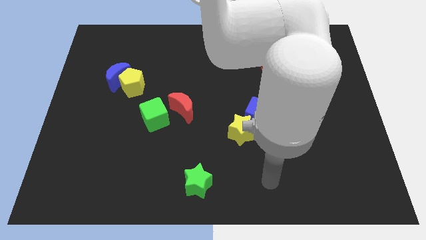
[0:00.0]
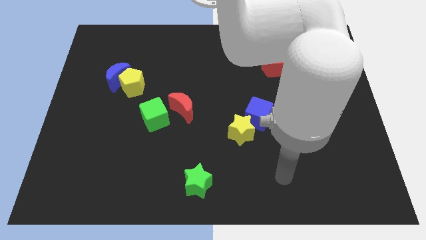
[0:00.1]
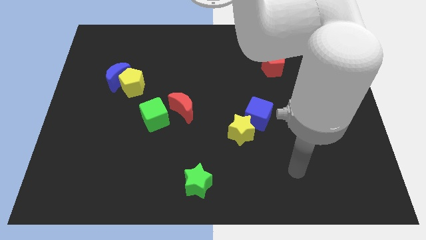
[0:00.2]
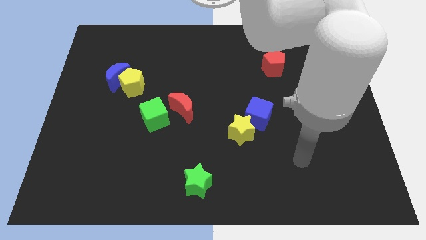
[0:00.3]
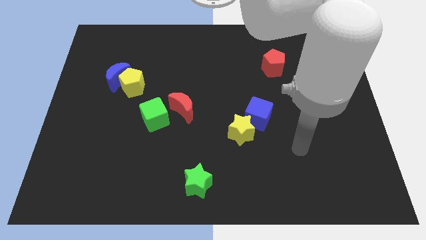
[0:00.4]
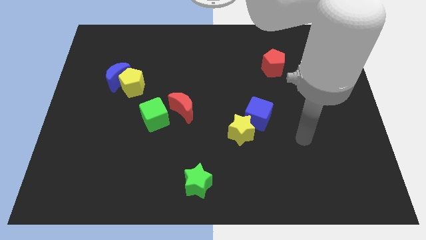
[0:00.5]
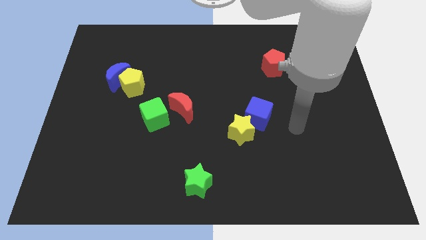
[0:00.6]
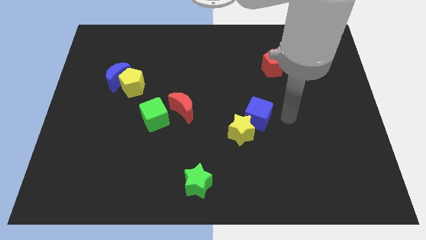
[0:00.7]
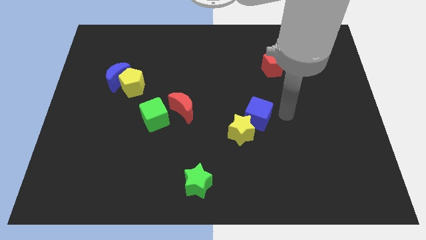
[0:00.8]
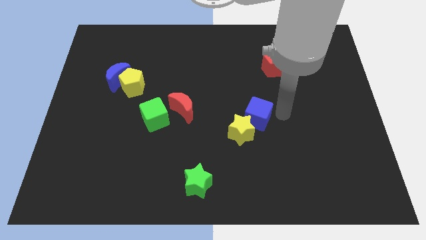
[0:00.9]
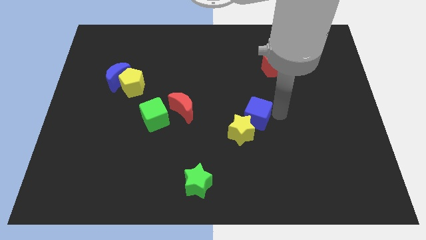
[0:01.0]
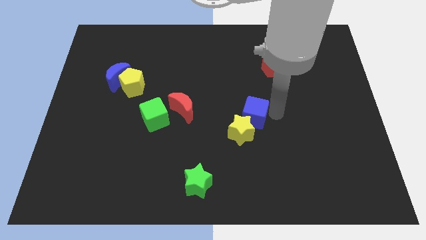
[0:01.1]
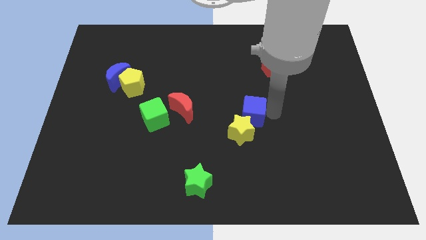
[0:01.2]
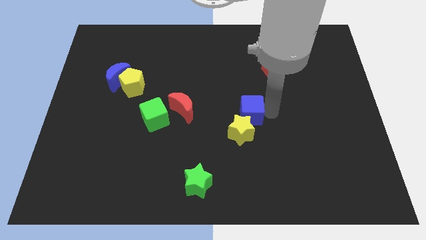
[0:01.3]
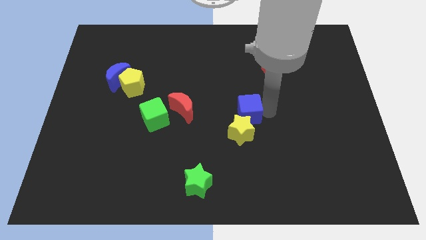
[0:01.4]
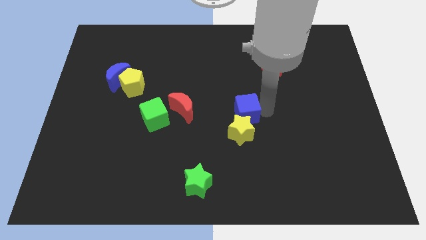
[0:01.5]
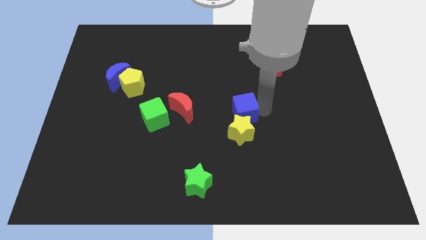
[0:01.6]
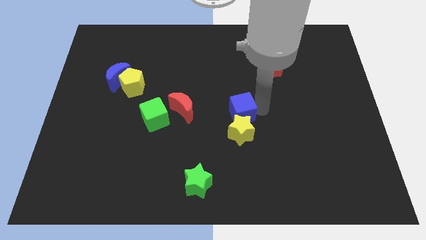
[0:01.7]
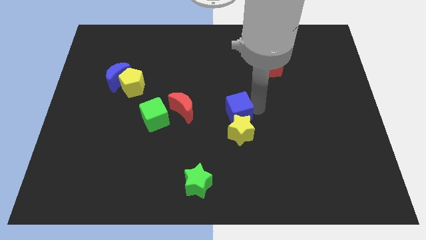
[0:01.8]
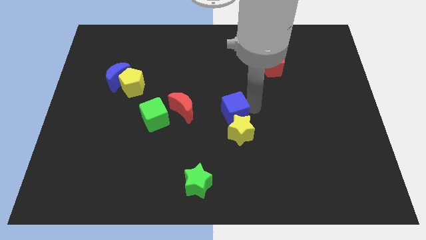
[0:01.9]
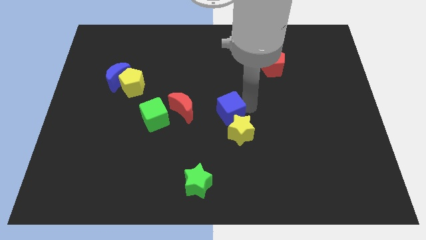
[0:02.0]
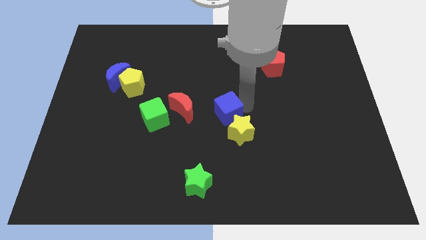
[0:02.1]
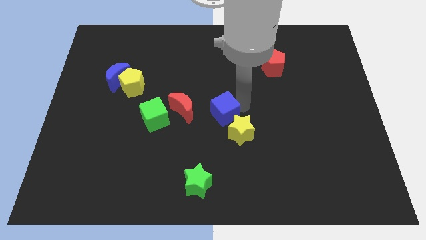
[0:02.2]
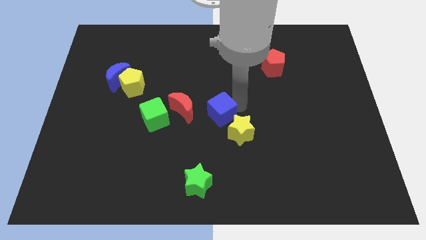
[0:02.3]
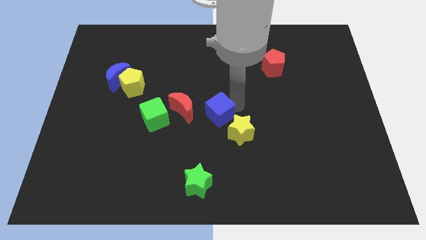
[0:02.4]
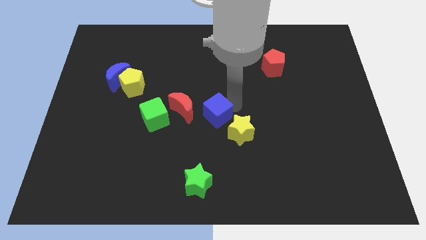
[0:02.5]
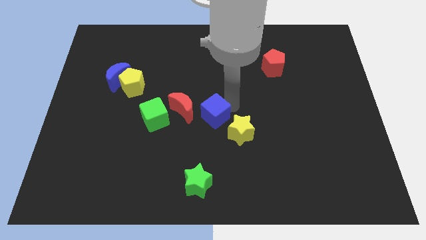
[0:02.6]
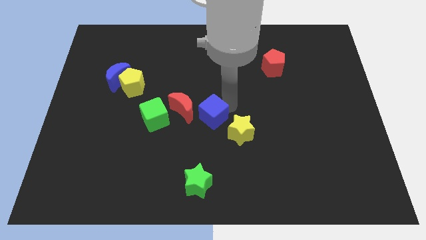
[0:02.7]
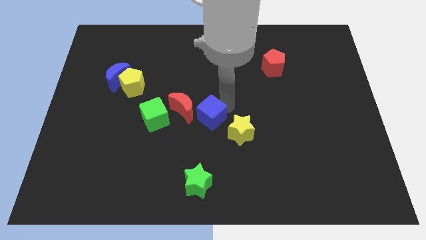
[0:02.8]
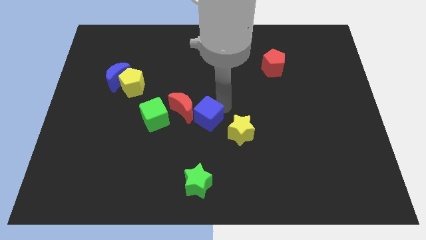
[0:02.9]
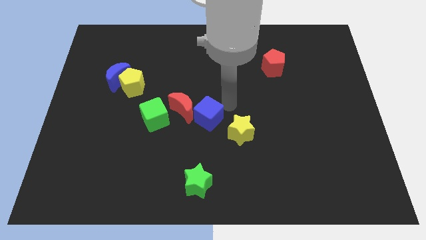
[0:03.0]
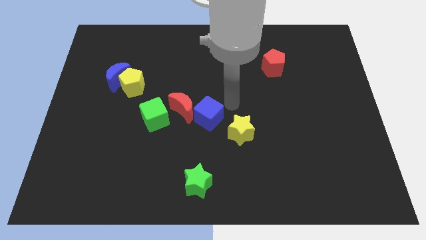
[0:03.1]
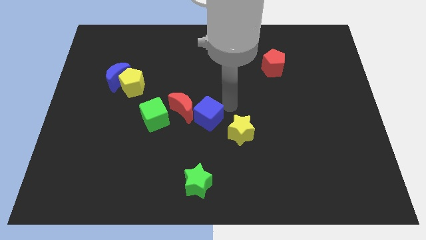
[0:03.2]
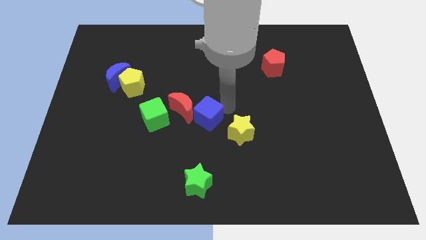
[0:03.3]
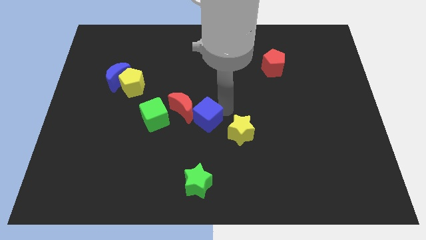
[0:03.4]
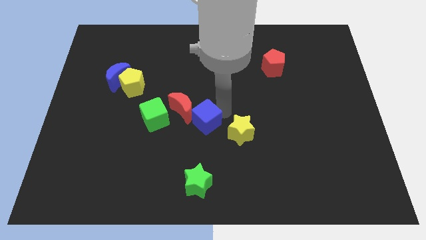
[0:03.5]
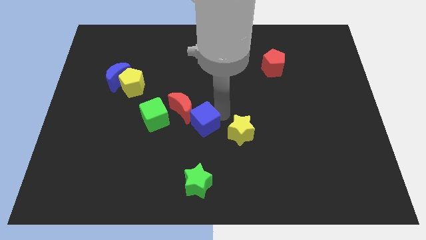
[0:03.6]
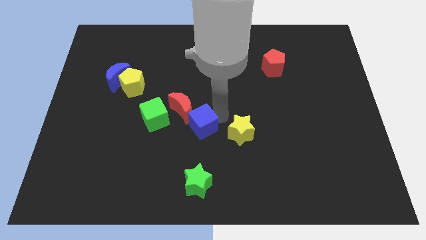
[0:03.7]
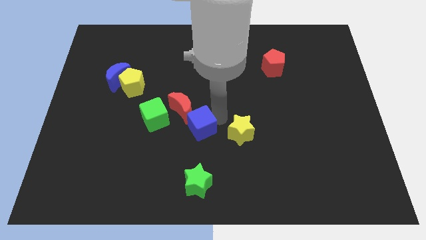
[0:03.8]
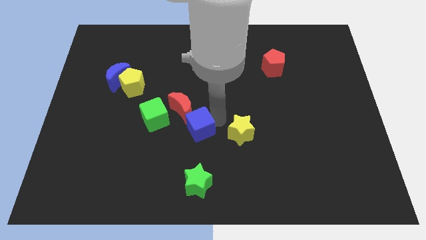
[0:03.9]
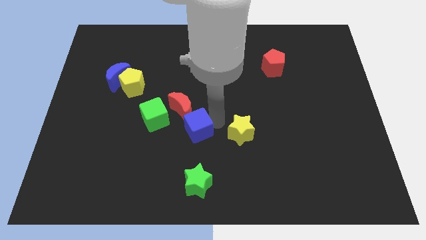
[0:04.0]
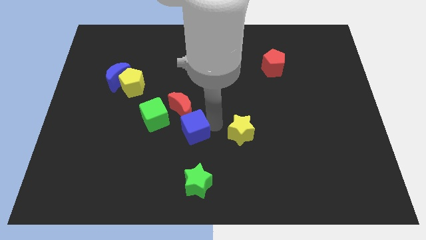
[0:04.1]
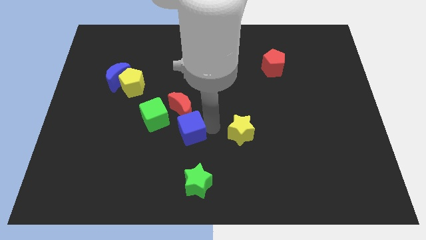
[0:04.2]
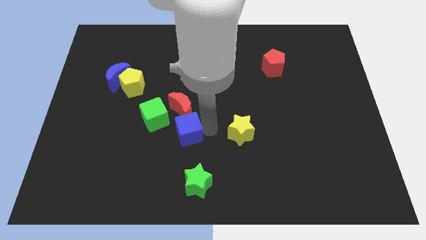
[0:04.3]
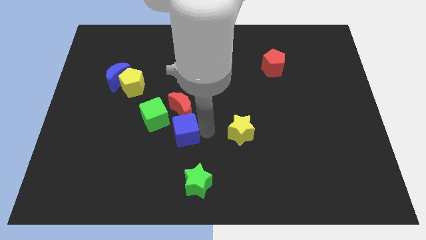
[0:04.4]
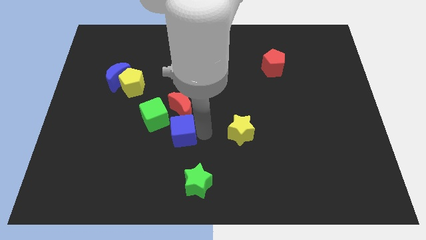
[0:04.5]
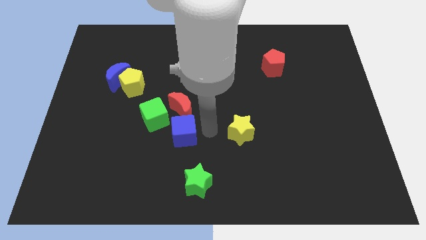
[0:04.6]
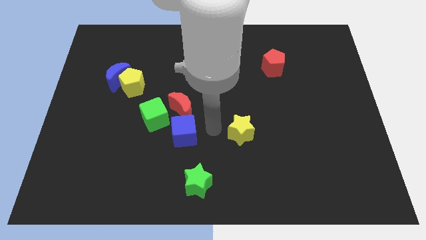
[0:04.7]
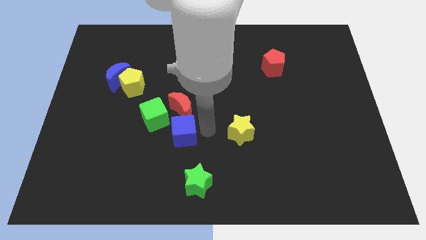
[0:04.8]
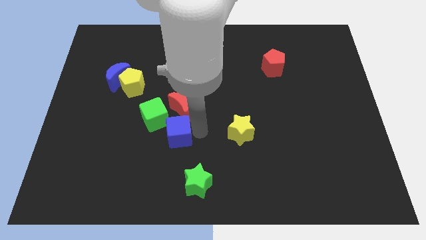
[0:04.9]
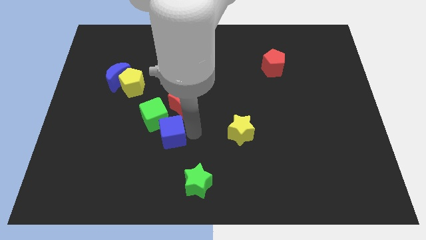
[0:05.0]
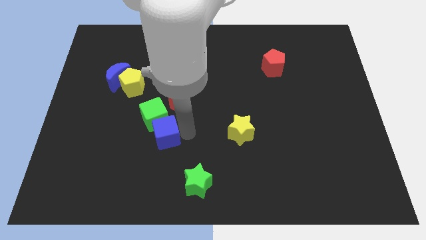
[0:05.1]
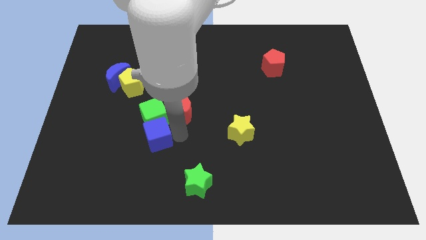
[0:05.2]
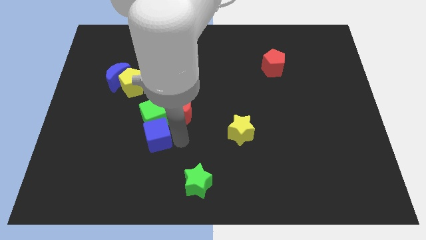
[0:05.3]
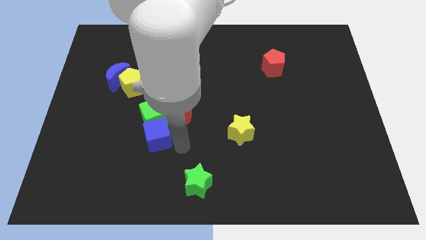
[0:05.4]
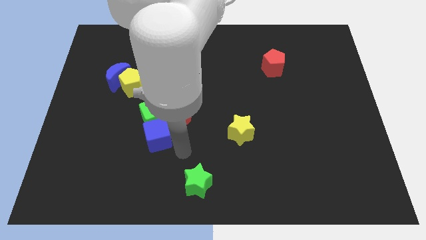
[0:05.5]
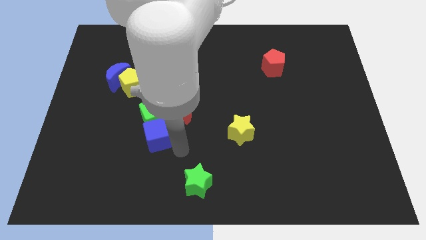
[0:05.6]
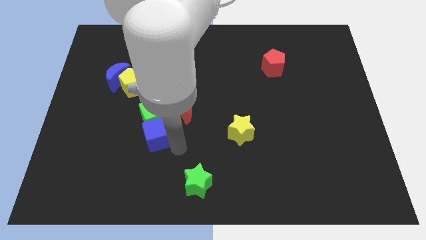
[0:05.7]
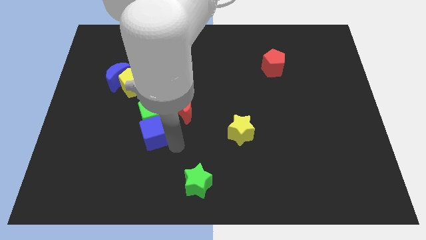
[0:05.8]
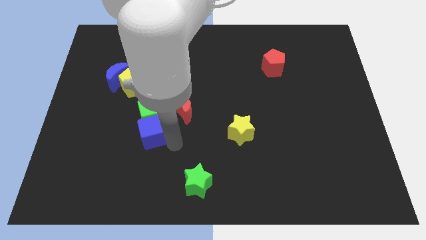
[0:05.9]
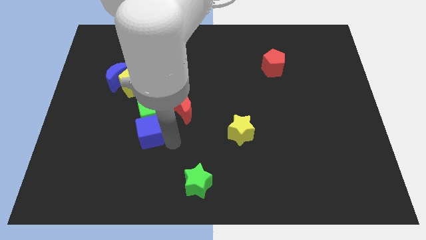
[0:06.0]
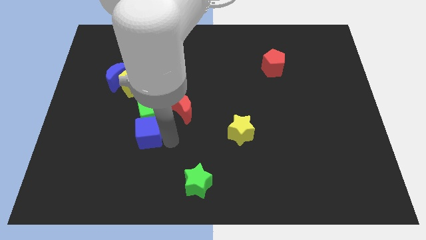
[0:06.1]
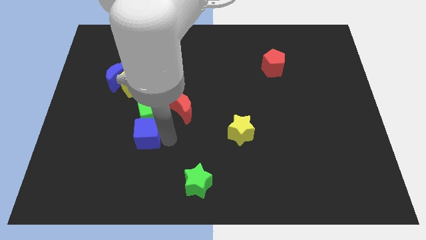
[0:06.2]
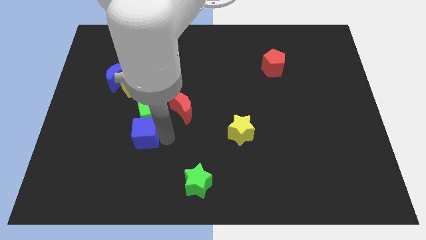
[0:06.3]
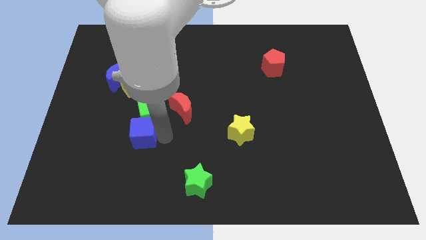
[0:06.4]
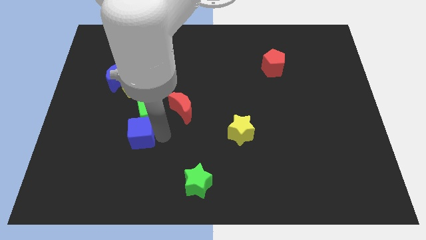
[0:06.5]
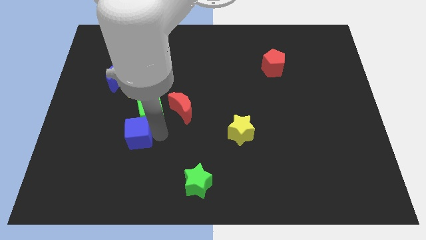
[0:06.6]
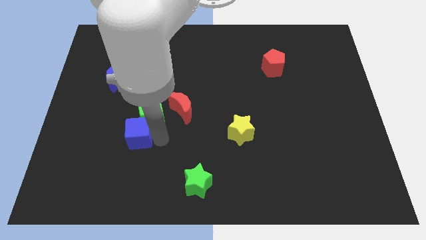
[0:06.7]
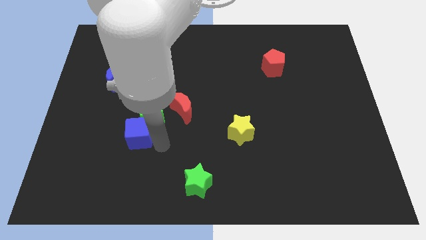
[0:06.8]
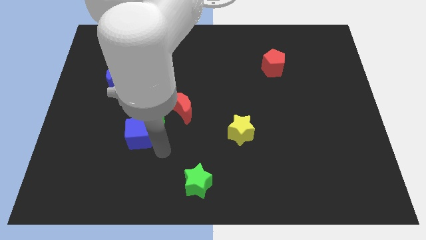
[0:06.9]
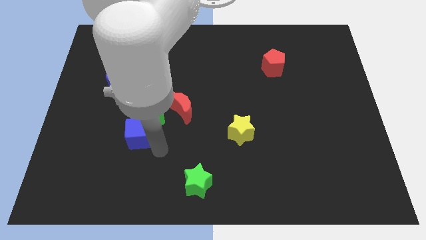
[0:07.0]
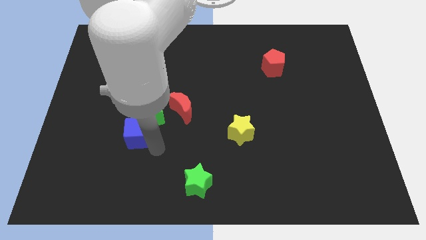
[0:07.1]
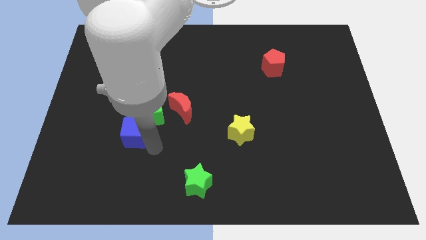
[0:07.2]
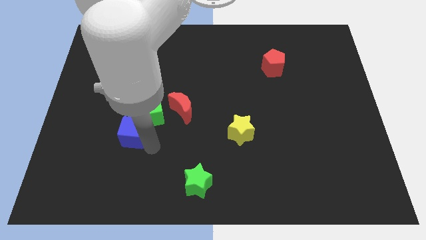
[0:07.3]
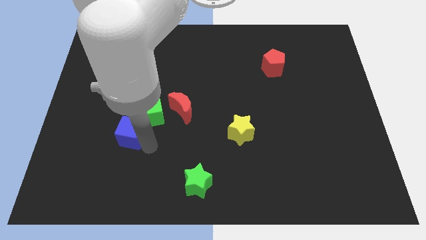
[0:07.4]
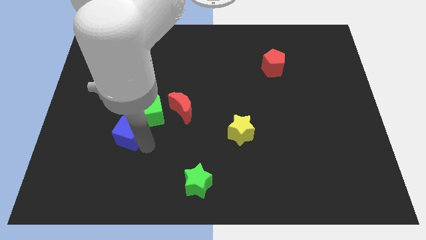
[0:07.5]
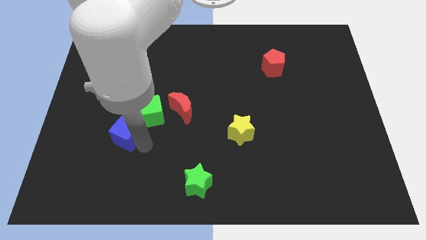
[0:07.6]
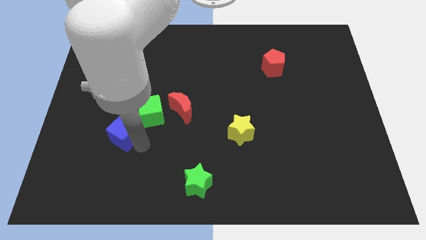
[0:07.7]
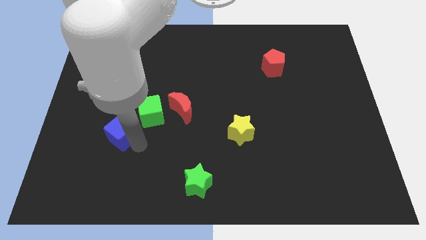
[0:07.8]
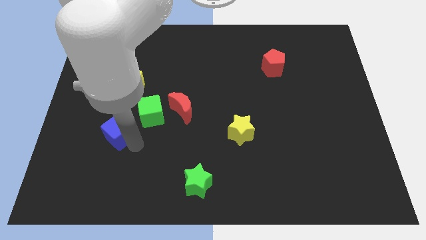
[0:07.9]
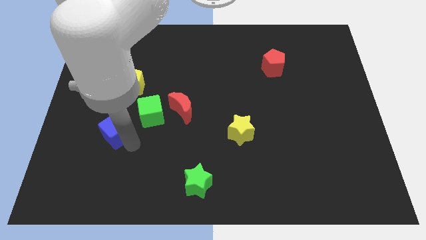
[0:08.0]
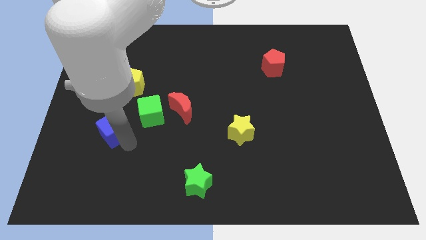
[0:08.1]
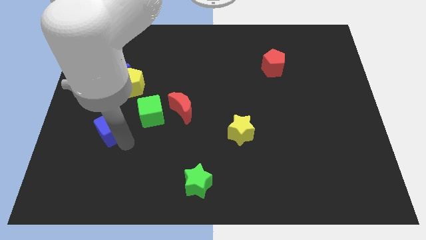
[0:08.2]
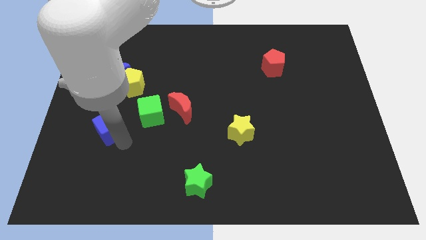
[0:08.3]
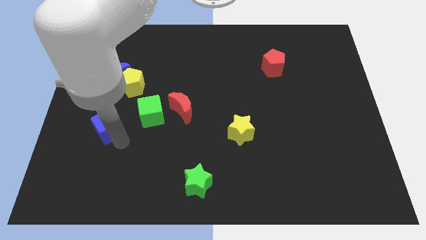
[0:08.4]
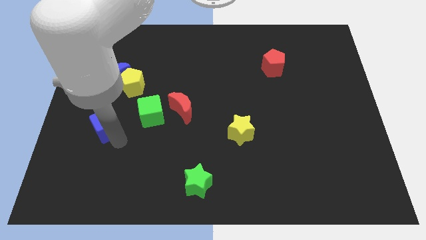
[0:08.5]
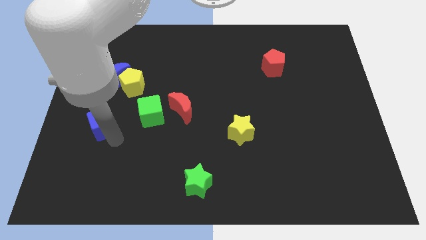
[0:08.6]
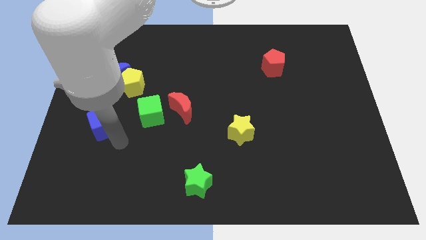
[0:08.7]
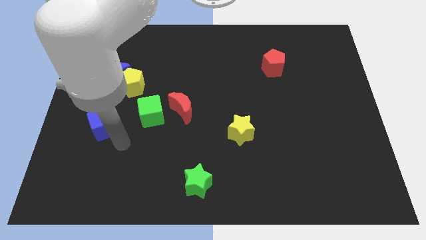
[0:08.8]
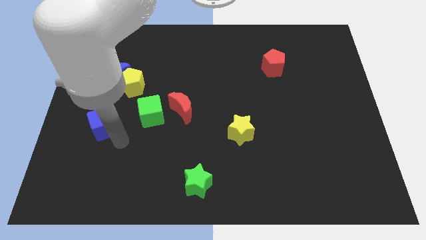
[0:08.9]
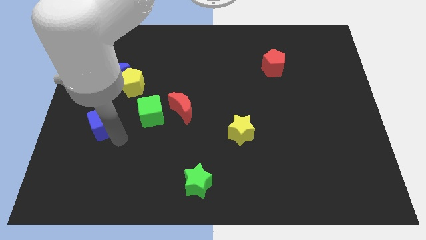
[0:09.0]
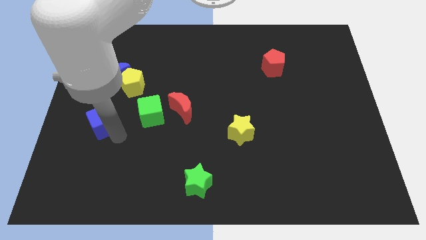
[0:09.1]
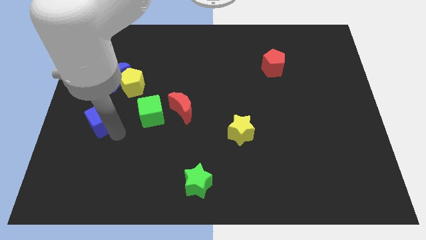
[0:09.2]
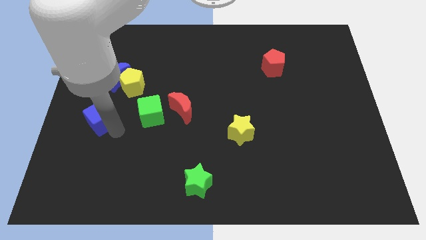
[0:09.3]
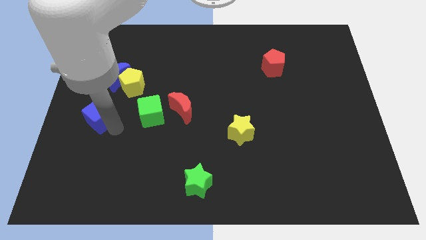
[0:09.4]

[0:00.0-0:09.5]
put the blue cube to the left side of the board
